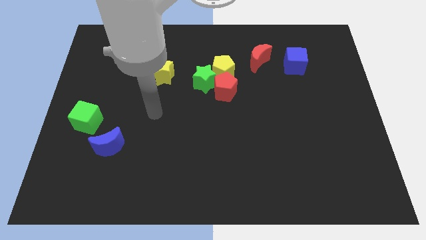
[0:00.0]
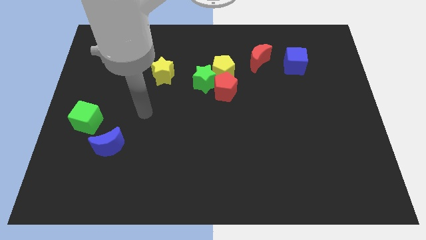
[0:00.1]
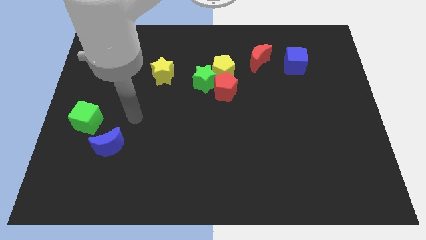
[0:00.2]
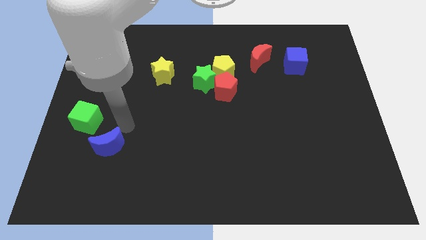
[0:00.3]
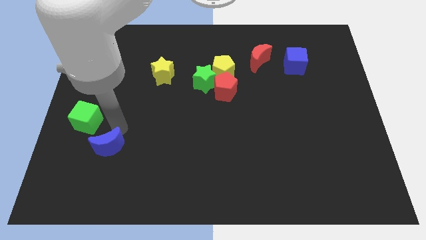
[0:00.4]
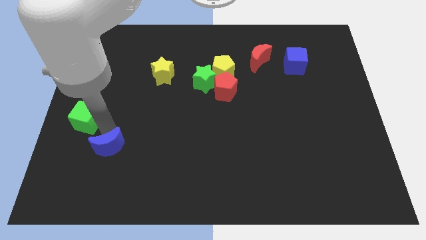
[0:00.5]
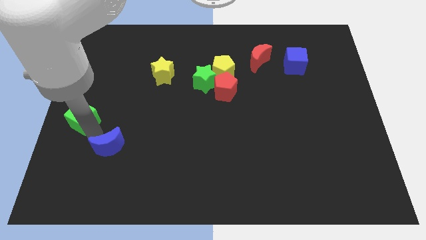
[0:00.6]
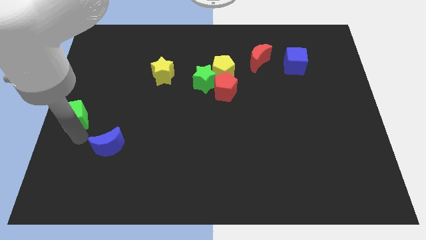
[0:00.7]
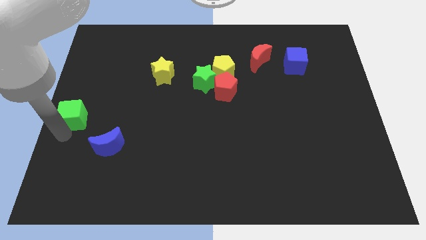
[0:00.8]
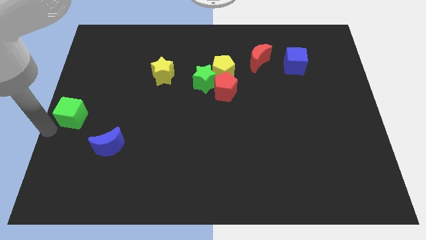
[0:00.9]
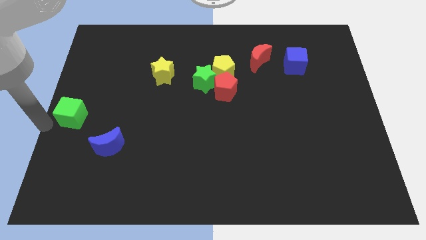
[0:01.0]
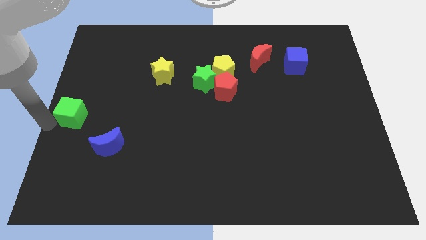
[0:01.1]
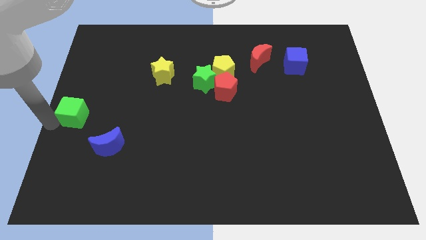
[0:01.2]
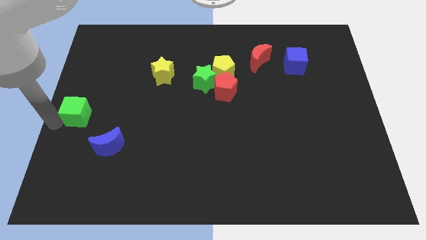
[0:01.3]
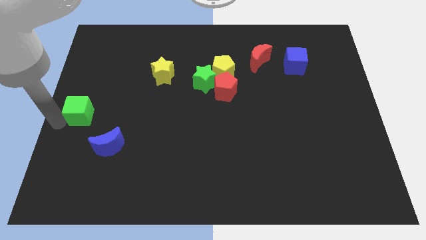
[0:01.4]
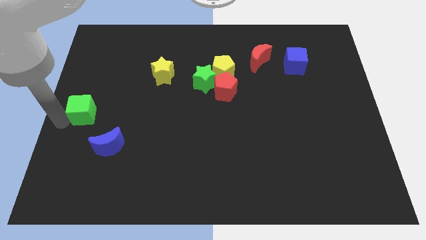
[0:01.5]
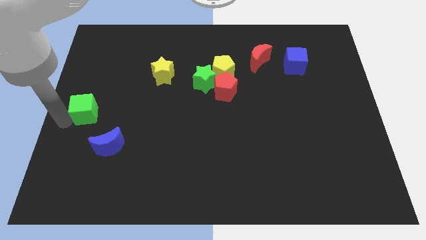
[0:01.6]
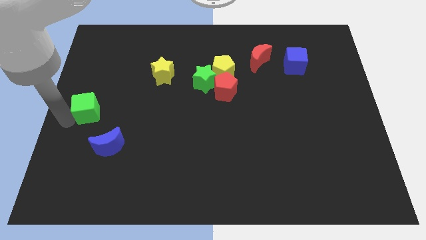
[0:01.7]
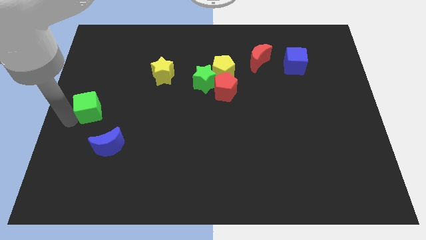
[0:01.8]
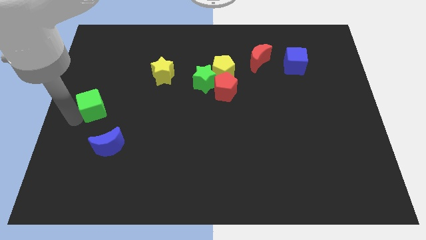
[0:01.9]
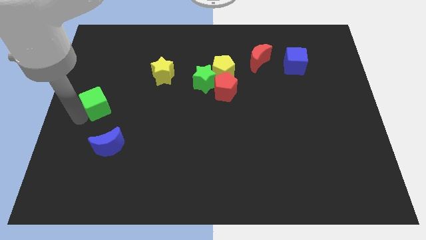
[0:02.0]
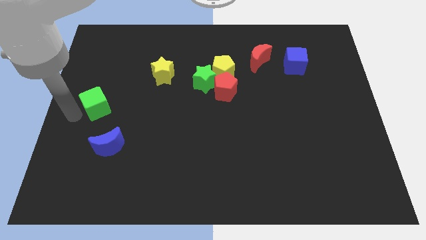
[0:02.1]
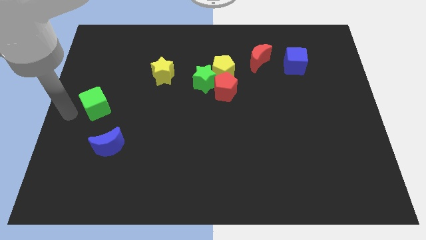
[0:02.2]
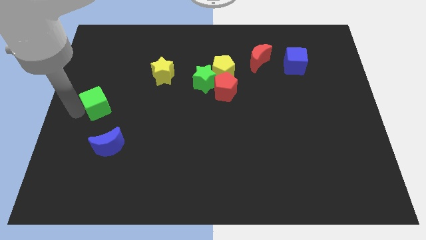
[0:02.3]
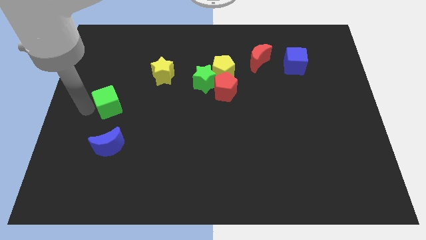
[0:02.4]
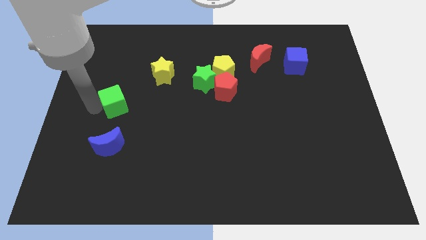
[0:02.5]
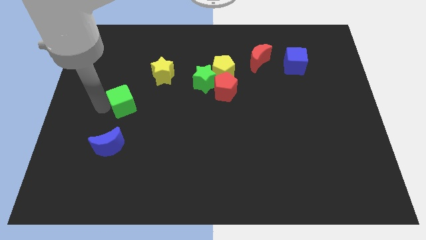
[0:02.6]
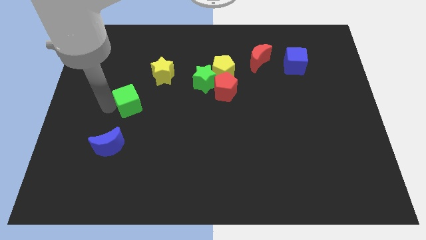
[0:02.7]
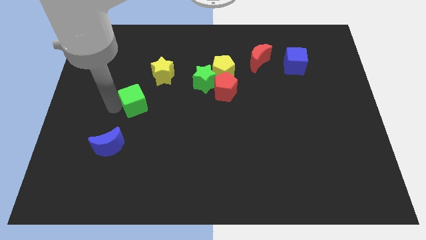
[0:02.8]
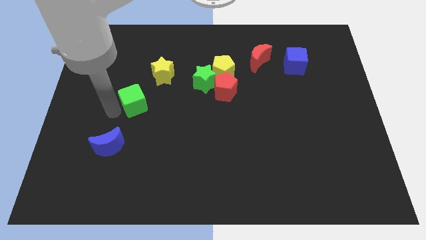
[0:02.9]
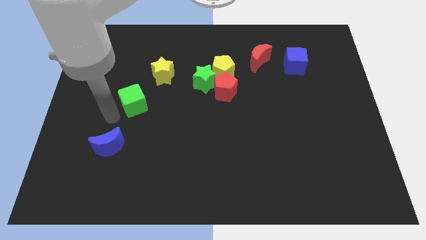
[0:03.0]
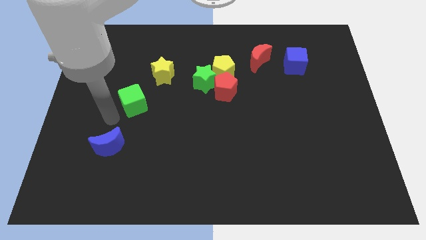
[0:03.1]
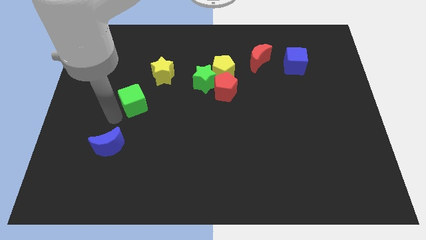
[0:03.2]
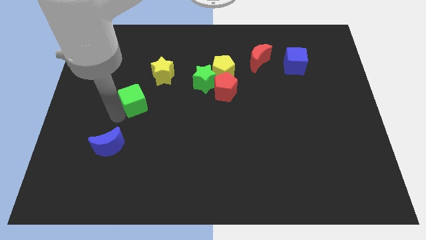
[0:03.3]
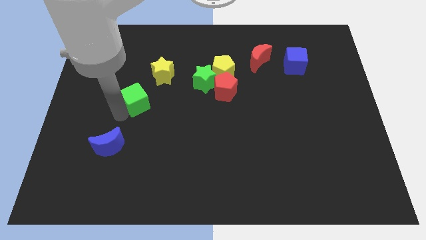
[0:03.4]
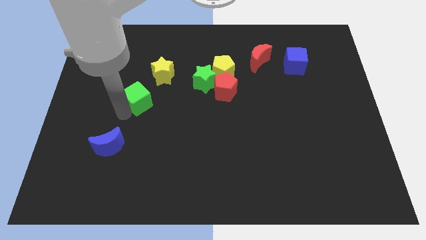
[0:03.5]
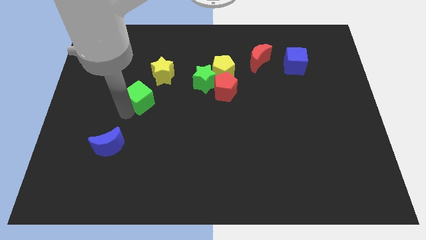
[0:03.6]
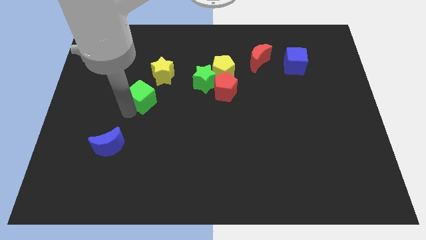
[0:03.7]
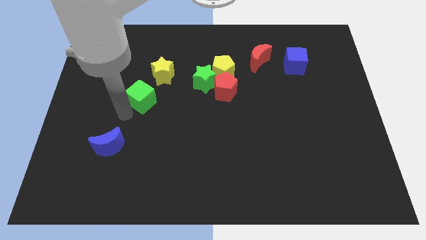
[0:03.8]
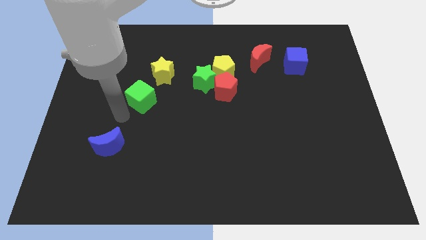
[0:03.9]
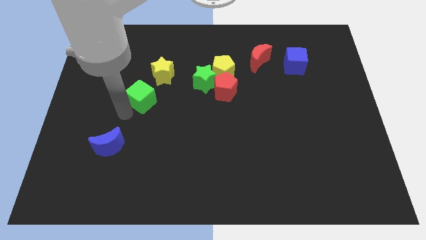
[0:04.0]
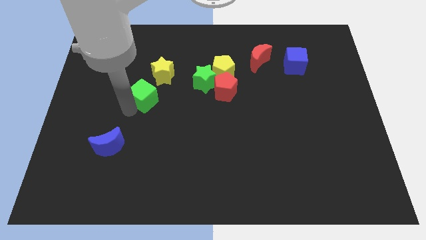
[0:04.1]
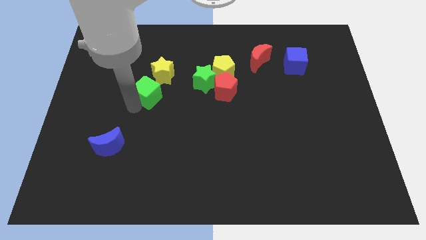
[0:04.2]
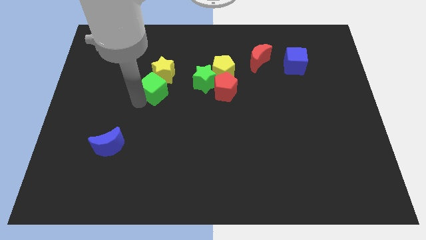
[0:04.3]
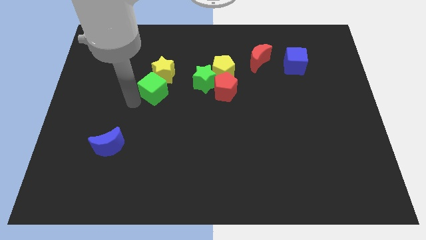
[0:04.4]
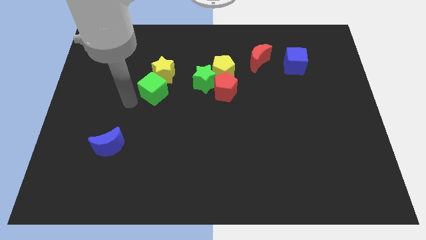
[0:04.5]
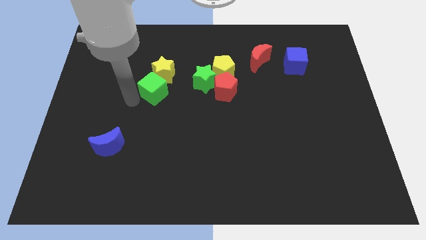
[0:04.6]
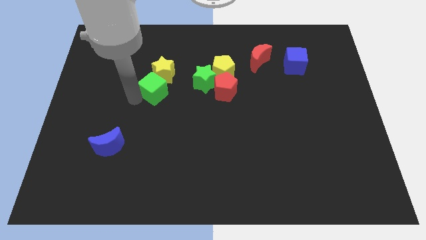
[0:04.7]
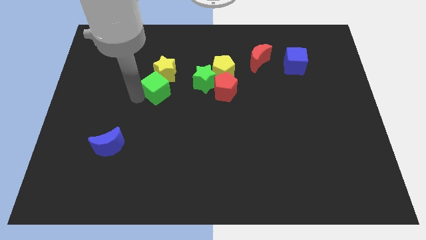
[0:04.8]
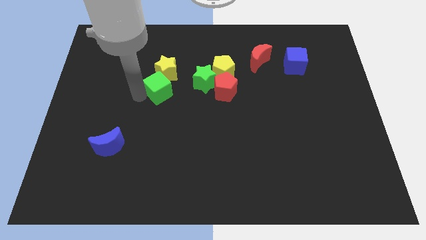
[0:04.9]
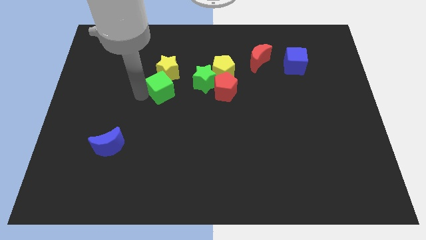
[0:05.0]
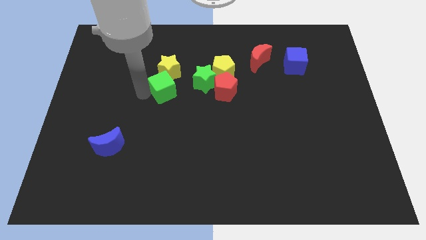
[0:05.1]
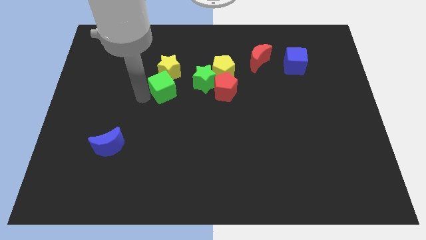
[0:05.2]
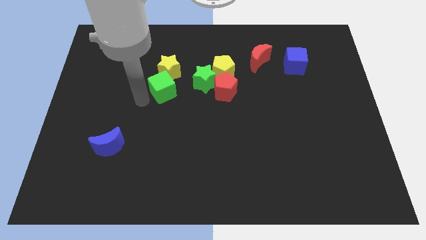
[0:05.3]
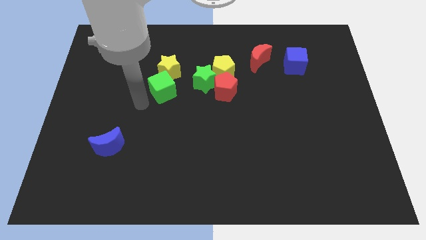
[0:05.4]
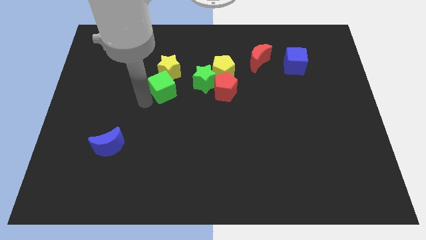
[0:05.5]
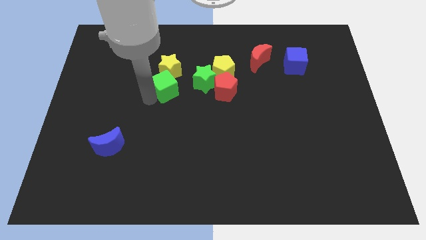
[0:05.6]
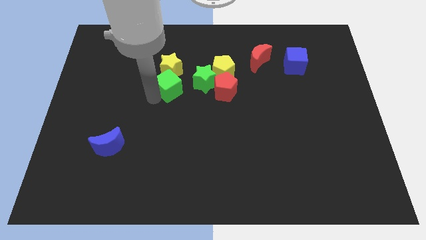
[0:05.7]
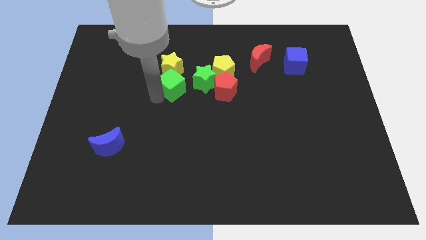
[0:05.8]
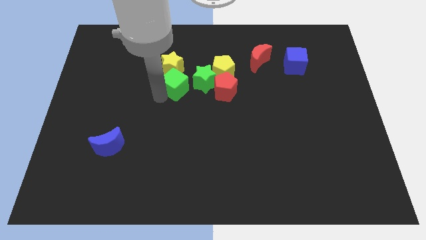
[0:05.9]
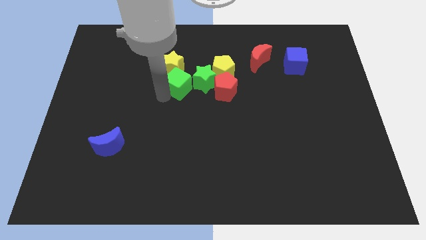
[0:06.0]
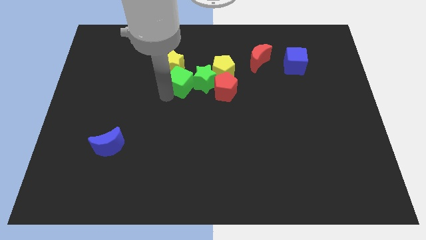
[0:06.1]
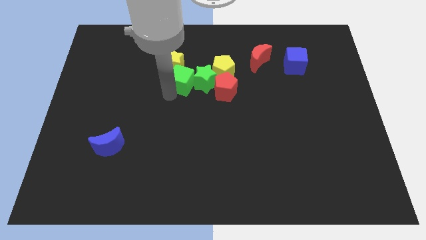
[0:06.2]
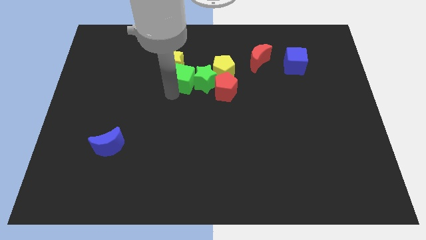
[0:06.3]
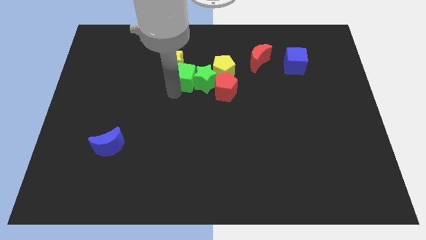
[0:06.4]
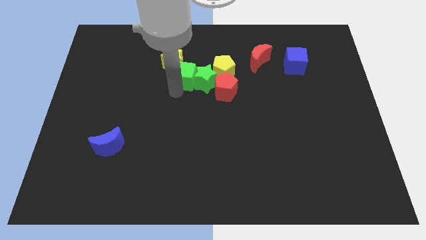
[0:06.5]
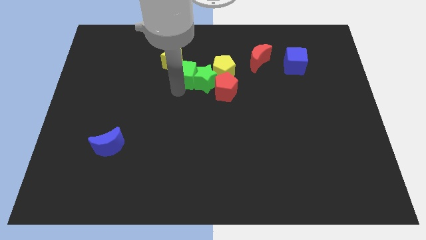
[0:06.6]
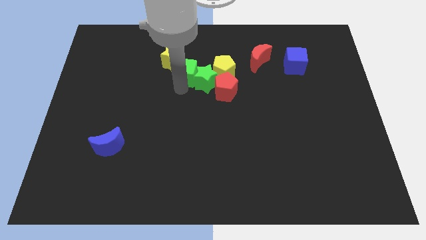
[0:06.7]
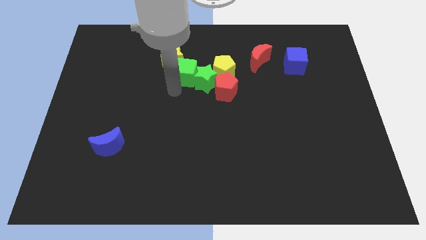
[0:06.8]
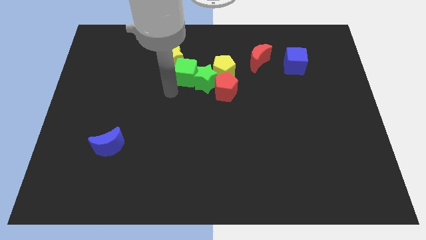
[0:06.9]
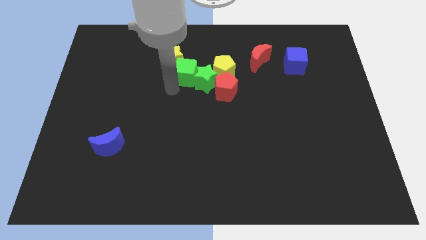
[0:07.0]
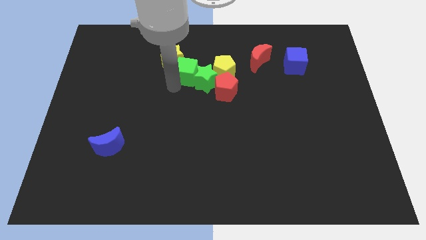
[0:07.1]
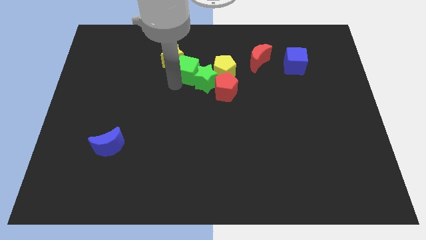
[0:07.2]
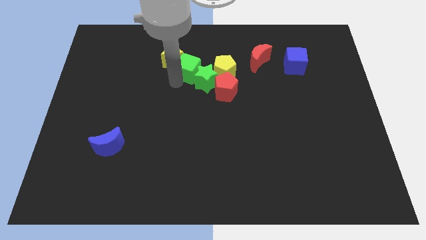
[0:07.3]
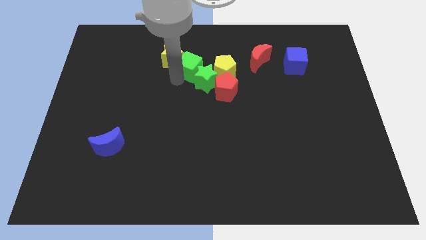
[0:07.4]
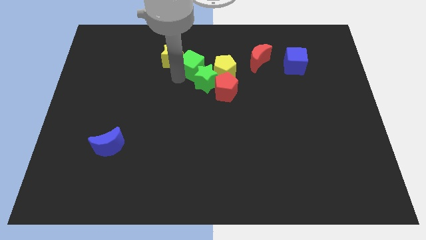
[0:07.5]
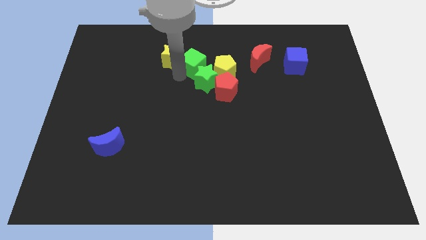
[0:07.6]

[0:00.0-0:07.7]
put the green cube to the top left side of the yellow pentagon
